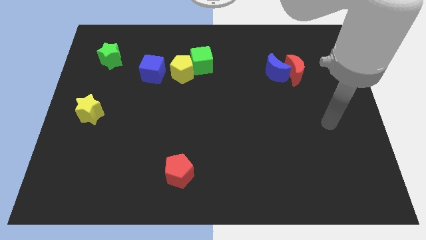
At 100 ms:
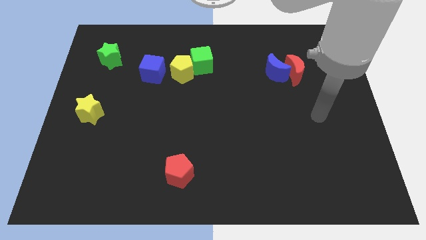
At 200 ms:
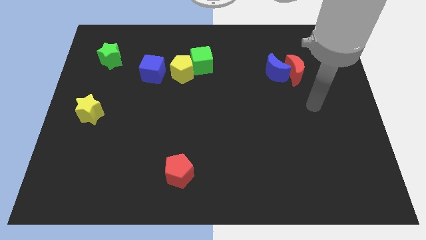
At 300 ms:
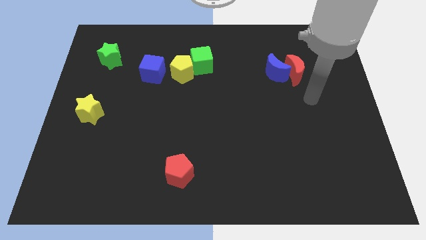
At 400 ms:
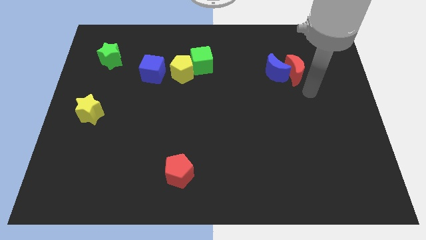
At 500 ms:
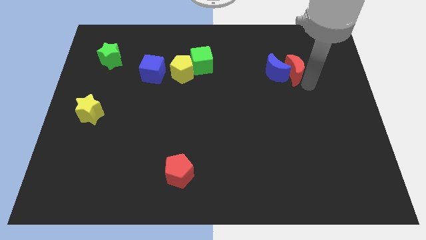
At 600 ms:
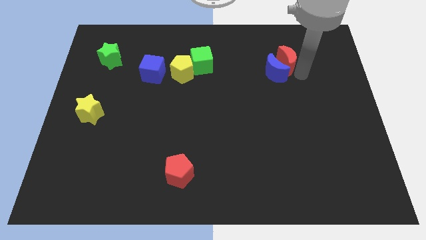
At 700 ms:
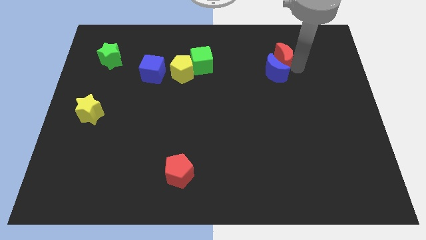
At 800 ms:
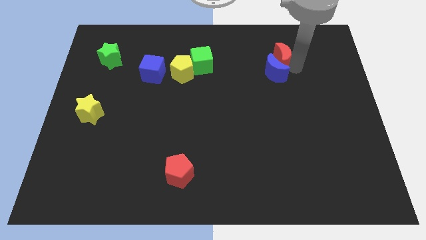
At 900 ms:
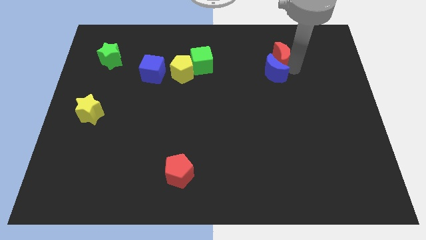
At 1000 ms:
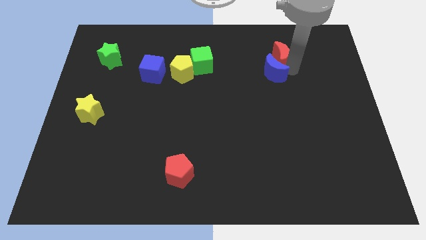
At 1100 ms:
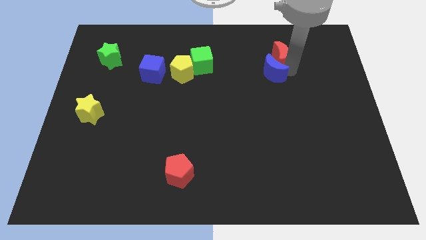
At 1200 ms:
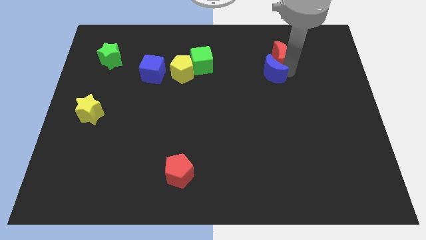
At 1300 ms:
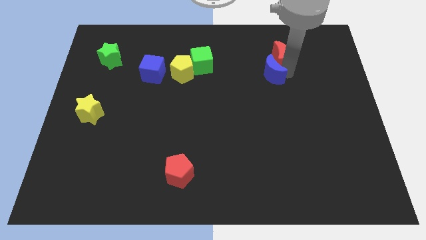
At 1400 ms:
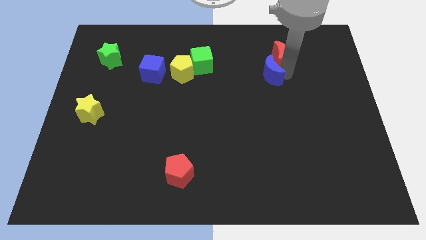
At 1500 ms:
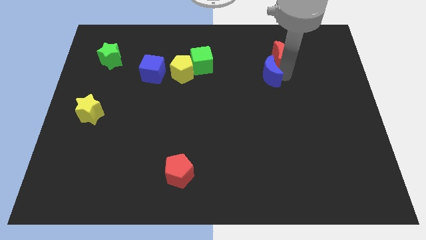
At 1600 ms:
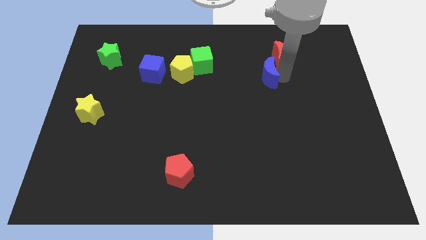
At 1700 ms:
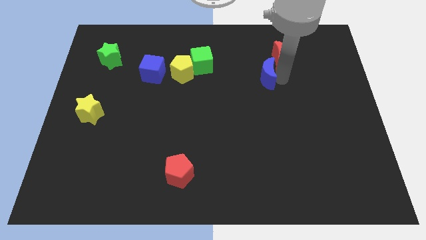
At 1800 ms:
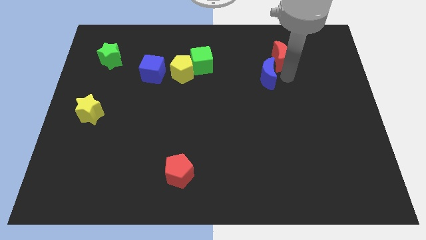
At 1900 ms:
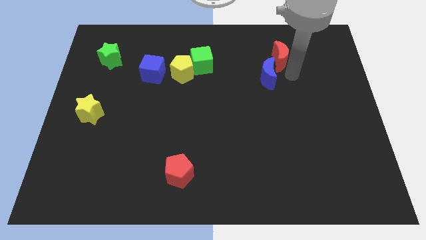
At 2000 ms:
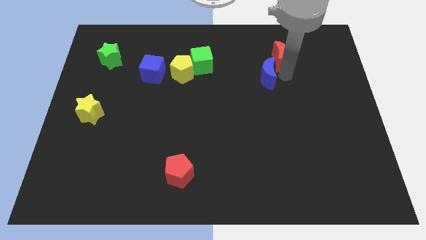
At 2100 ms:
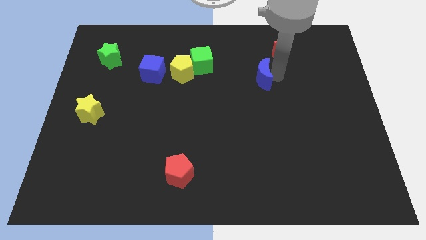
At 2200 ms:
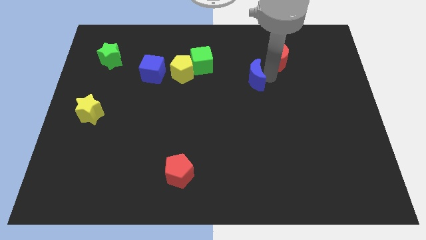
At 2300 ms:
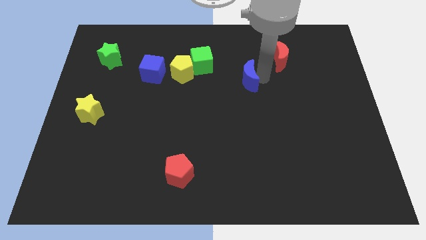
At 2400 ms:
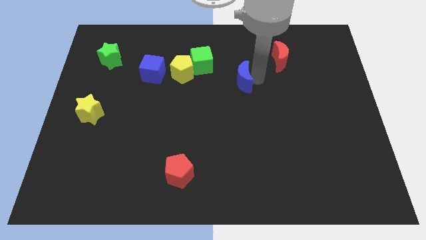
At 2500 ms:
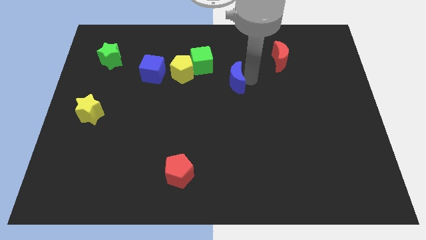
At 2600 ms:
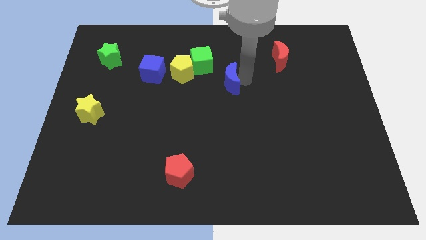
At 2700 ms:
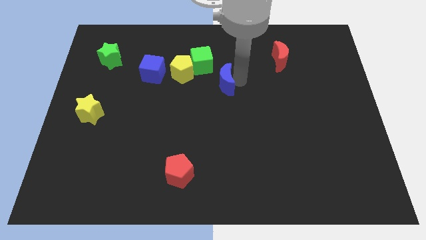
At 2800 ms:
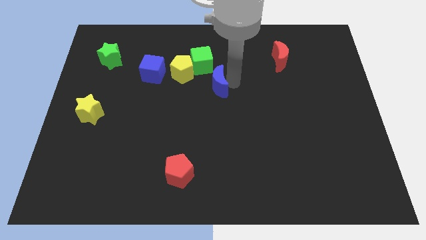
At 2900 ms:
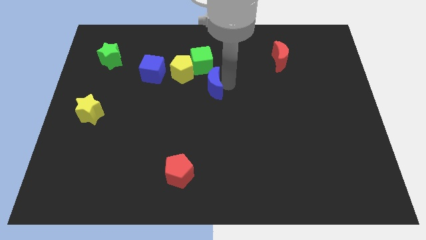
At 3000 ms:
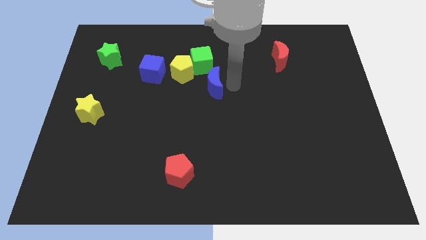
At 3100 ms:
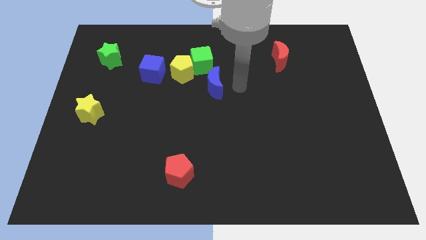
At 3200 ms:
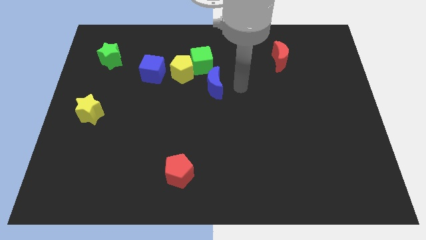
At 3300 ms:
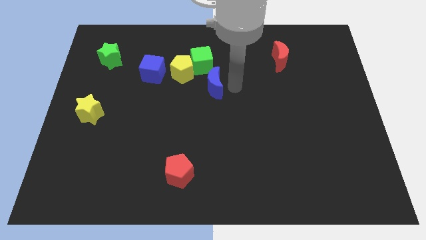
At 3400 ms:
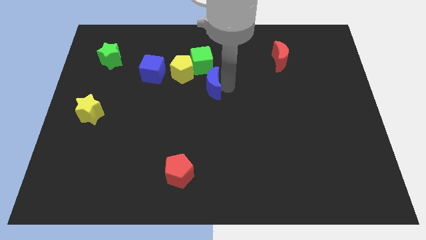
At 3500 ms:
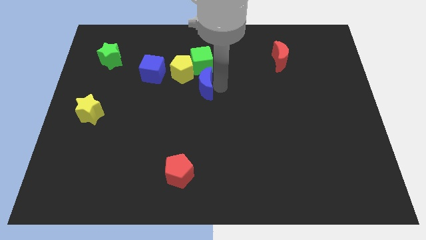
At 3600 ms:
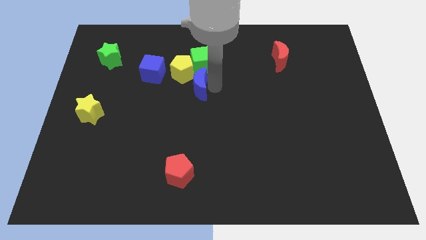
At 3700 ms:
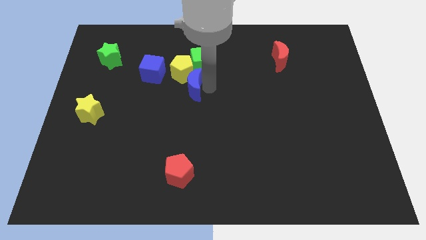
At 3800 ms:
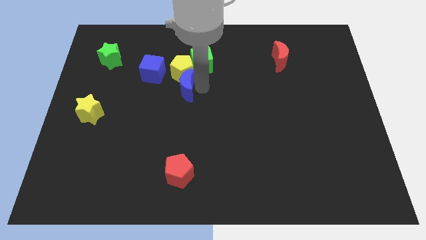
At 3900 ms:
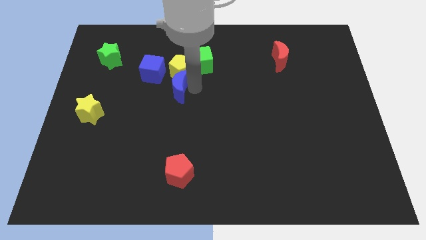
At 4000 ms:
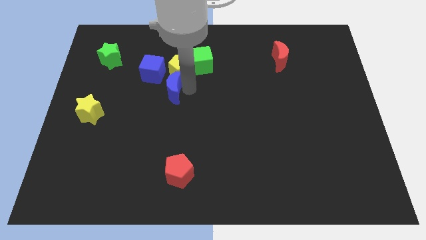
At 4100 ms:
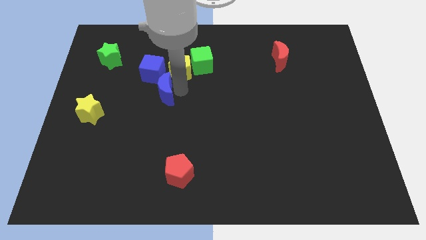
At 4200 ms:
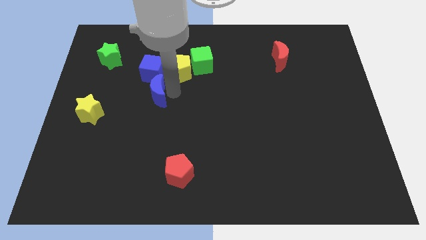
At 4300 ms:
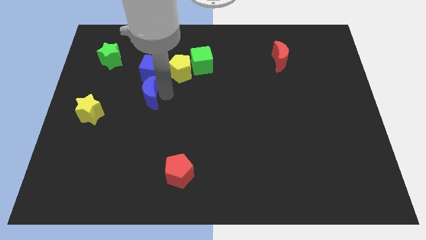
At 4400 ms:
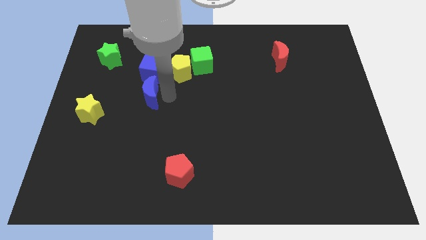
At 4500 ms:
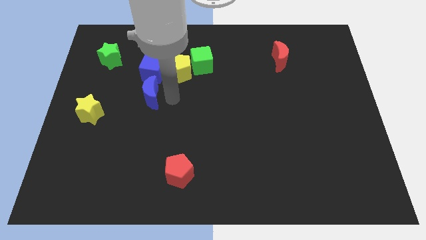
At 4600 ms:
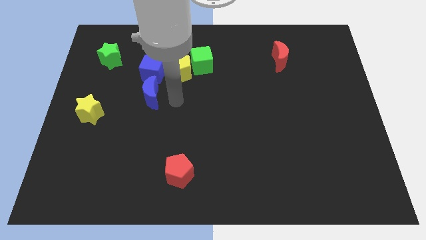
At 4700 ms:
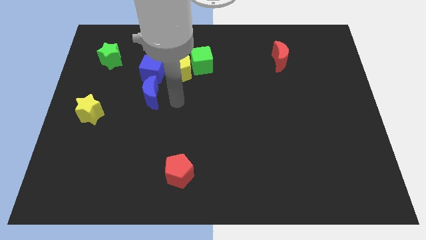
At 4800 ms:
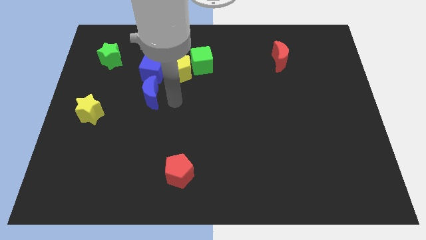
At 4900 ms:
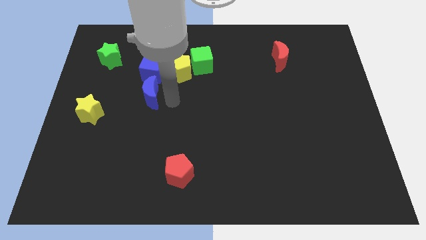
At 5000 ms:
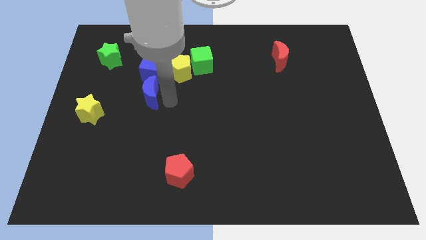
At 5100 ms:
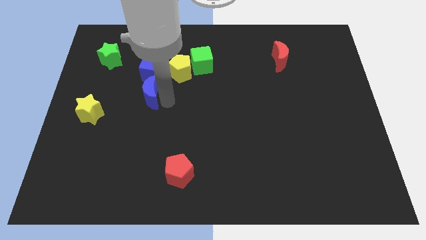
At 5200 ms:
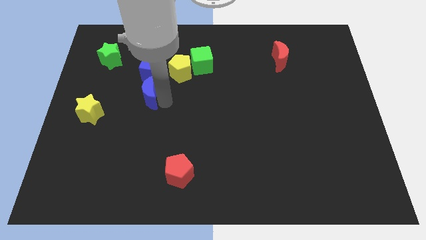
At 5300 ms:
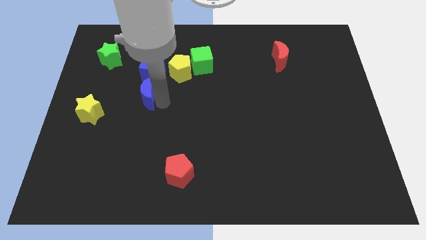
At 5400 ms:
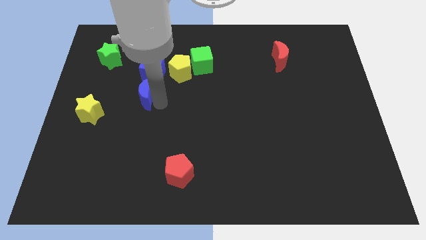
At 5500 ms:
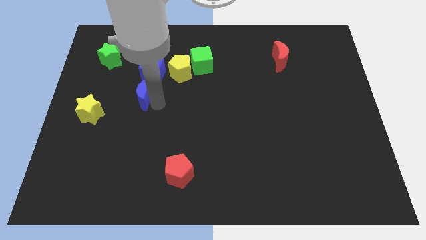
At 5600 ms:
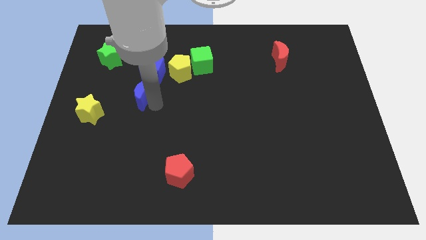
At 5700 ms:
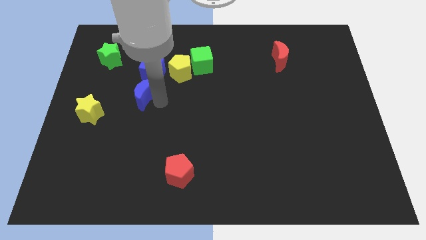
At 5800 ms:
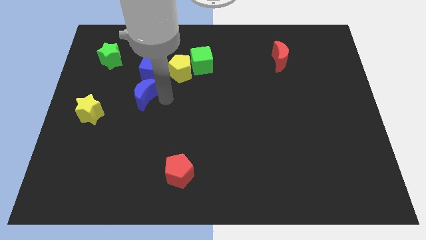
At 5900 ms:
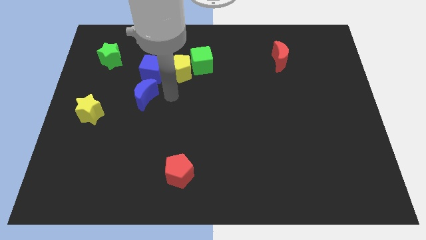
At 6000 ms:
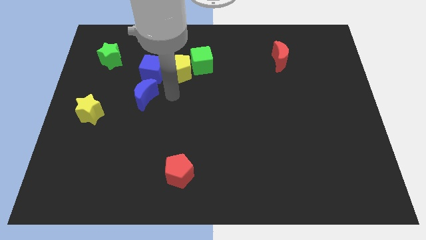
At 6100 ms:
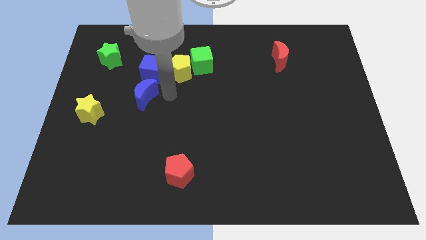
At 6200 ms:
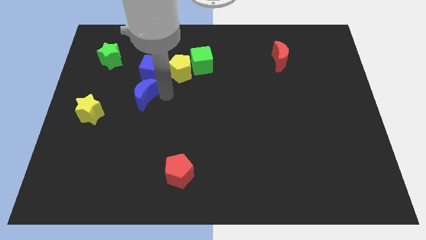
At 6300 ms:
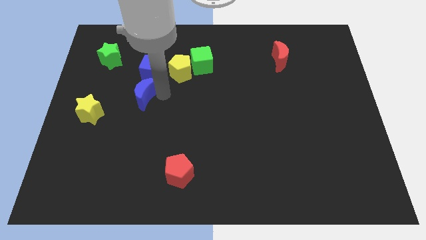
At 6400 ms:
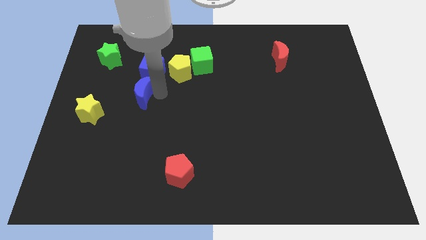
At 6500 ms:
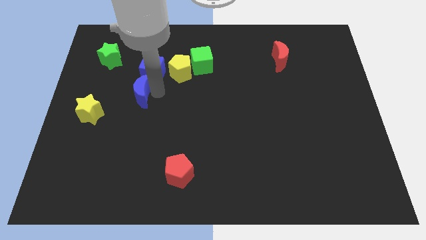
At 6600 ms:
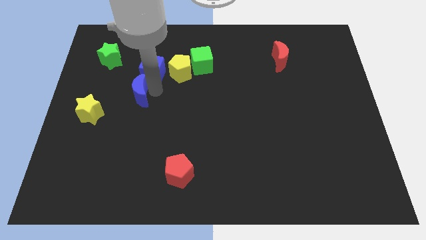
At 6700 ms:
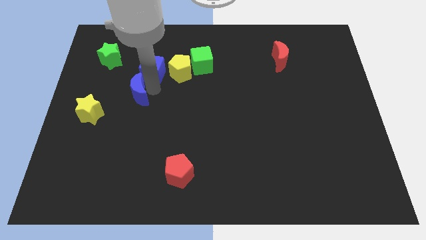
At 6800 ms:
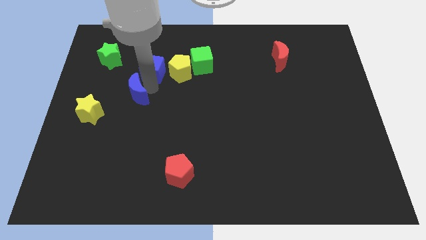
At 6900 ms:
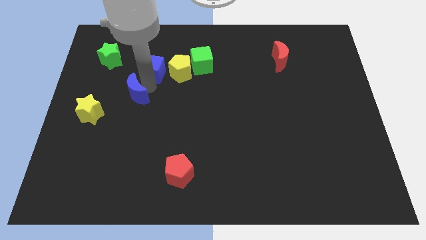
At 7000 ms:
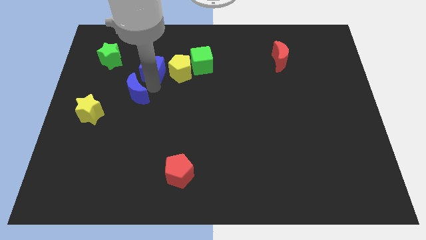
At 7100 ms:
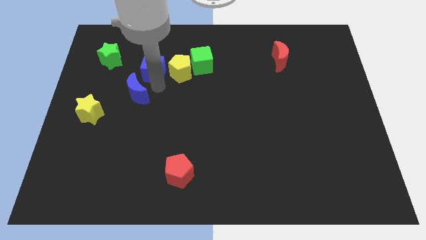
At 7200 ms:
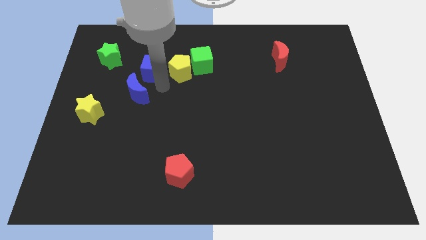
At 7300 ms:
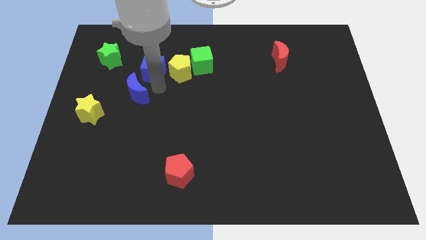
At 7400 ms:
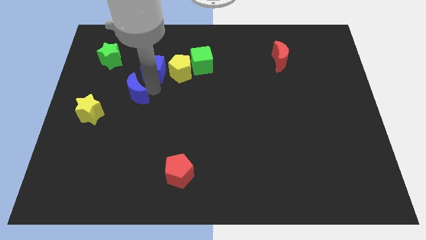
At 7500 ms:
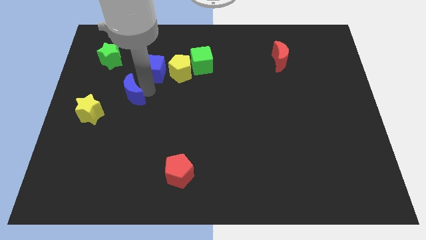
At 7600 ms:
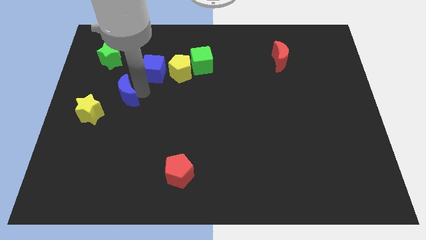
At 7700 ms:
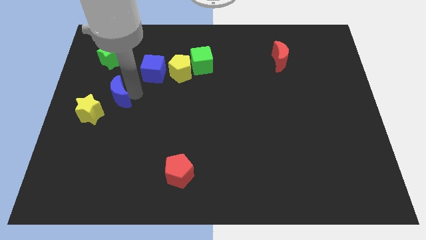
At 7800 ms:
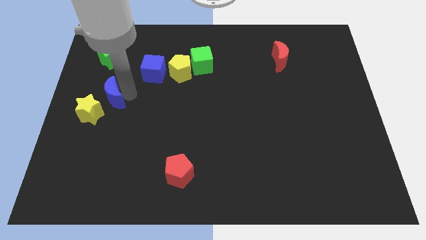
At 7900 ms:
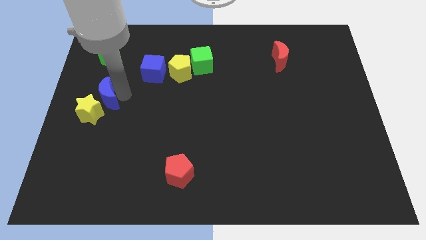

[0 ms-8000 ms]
slide the blue moon close to the yellow star
